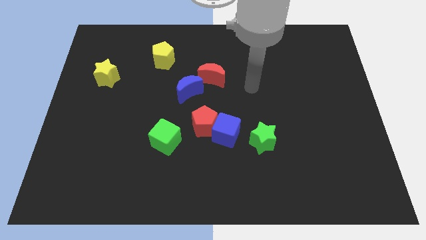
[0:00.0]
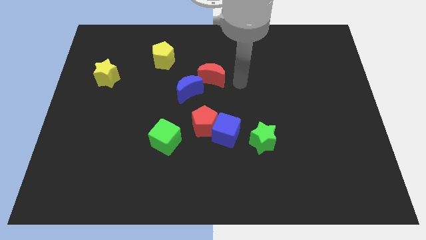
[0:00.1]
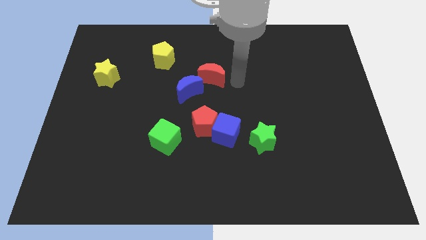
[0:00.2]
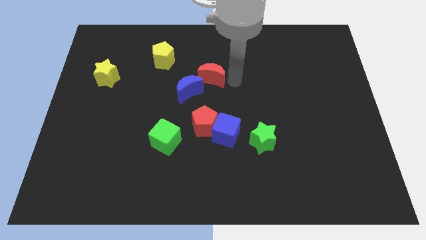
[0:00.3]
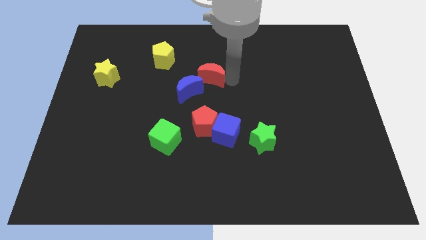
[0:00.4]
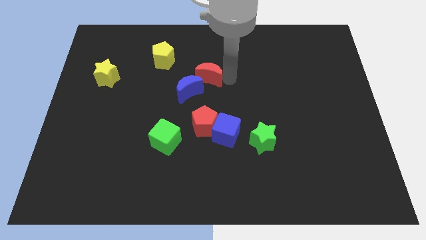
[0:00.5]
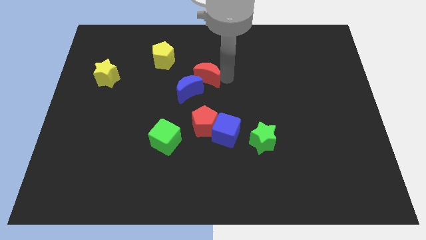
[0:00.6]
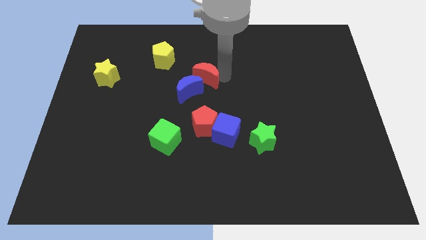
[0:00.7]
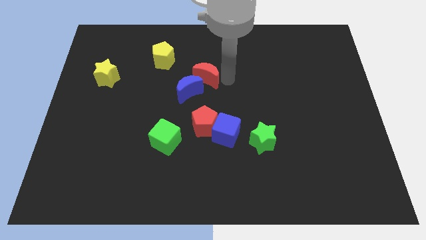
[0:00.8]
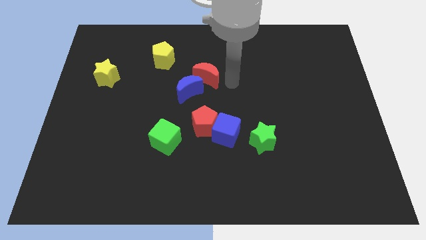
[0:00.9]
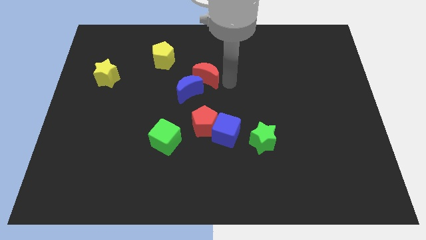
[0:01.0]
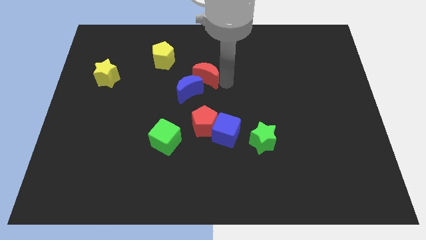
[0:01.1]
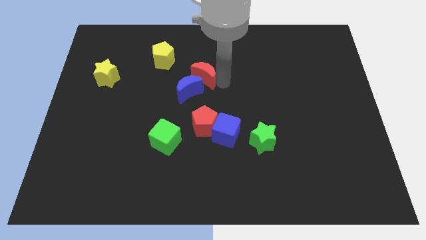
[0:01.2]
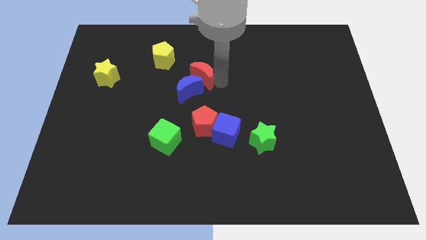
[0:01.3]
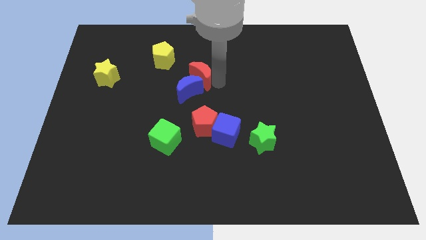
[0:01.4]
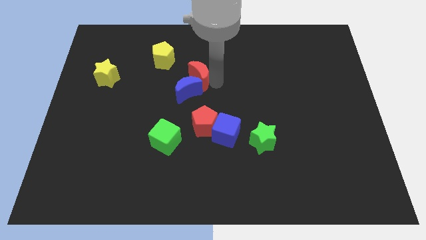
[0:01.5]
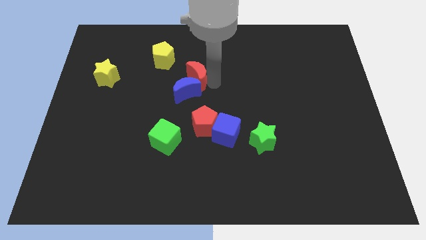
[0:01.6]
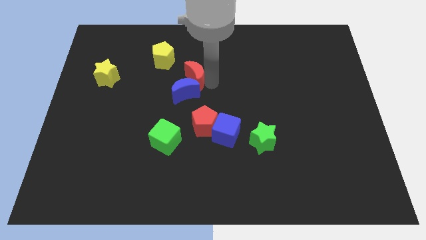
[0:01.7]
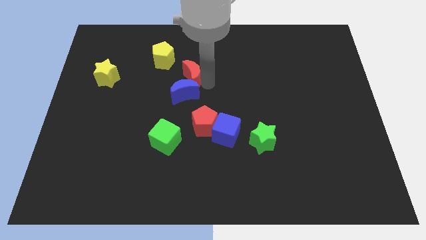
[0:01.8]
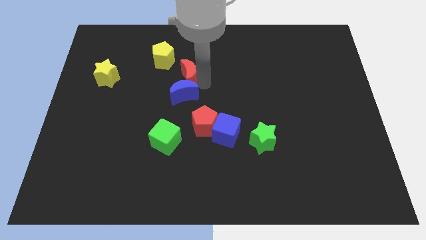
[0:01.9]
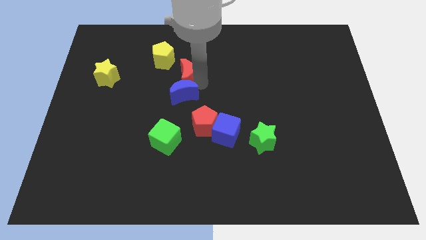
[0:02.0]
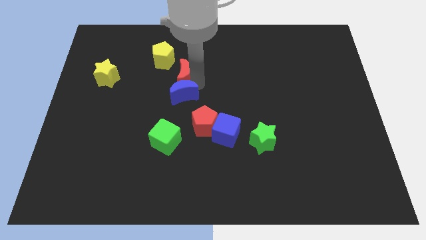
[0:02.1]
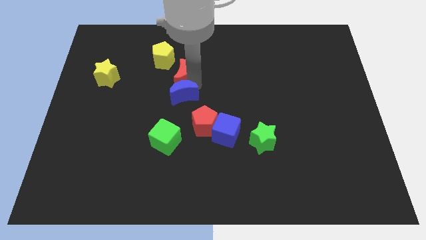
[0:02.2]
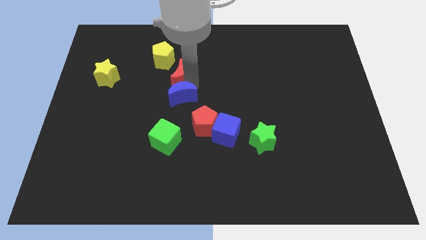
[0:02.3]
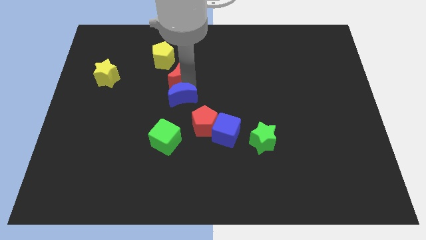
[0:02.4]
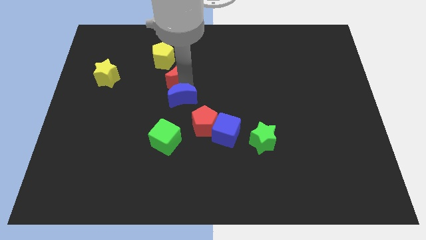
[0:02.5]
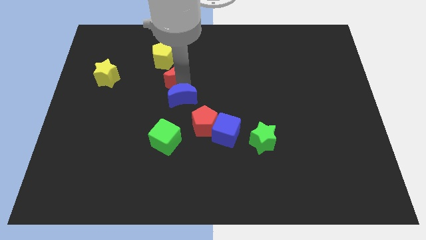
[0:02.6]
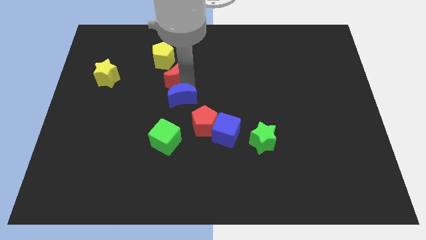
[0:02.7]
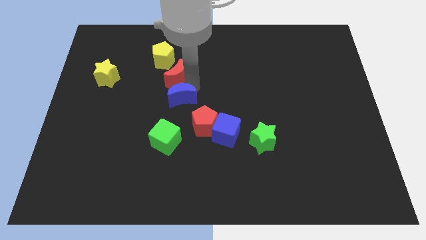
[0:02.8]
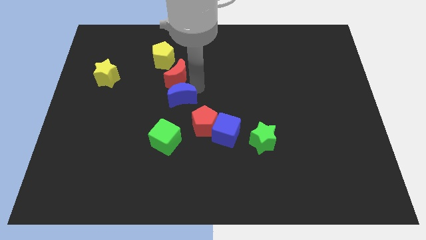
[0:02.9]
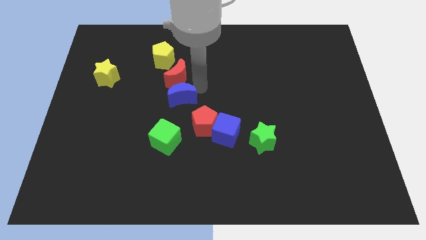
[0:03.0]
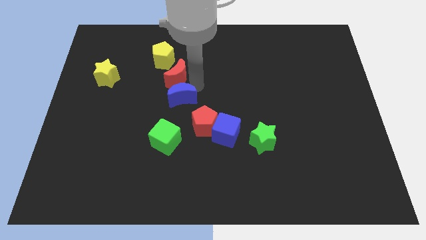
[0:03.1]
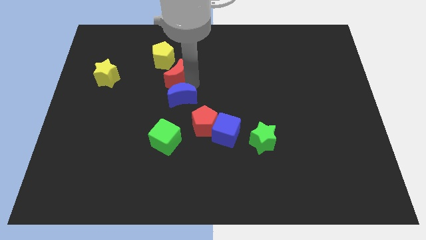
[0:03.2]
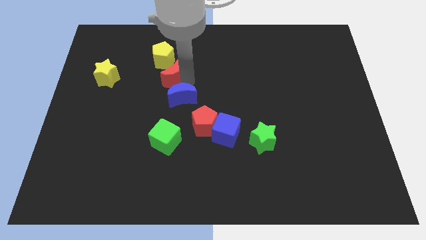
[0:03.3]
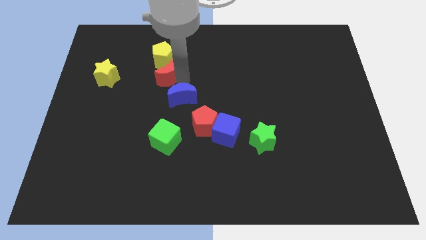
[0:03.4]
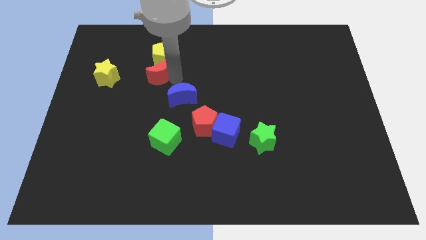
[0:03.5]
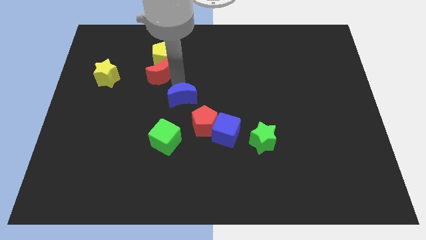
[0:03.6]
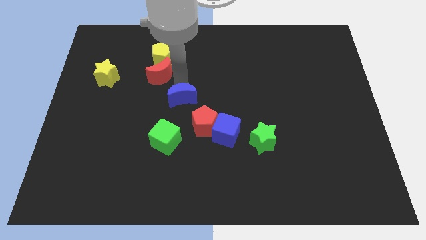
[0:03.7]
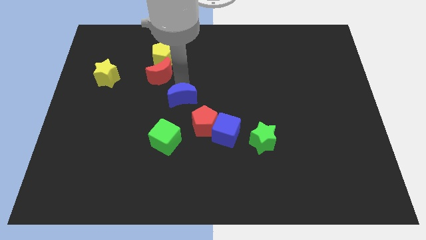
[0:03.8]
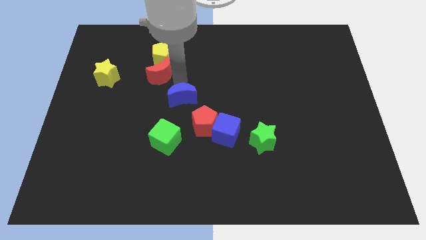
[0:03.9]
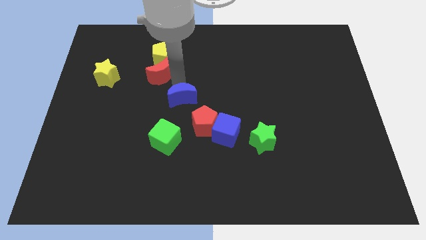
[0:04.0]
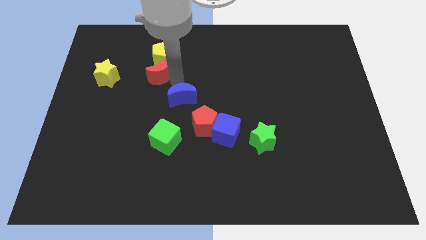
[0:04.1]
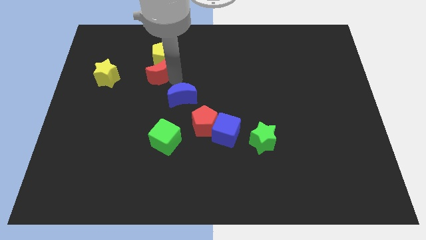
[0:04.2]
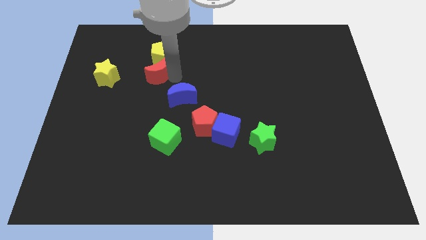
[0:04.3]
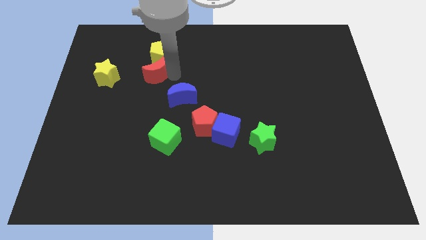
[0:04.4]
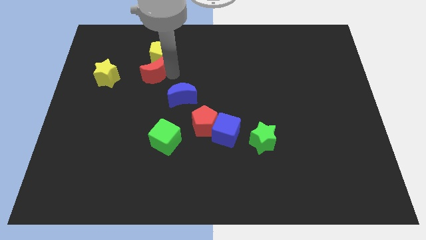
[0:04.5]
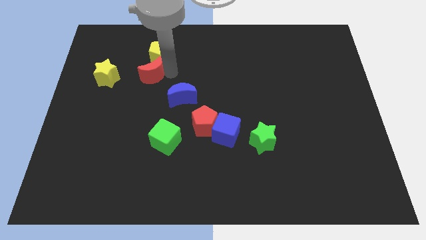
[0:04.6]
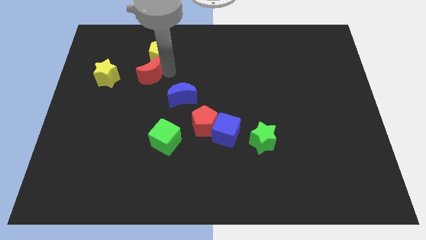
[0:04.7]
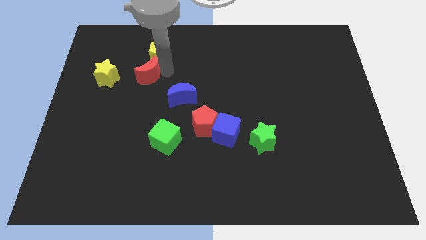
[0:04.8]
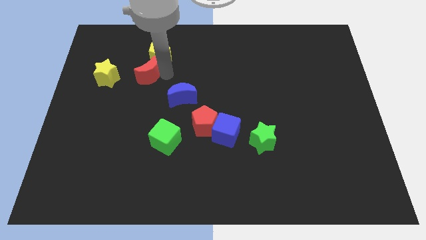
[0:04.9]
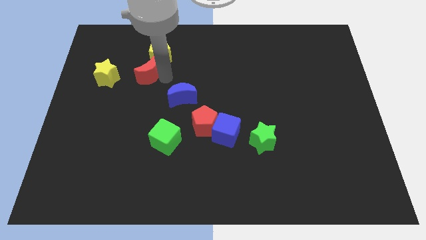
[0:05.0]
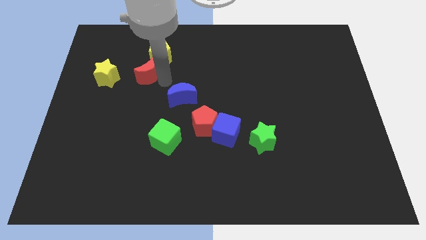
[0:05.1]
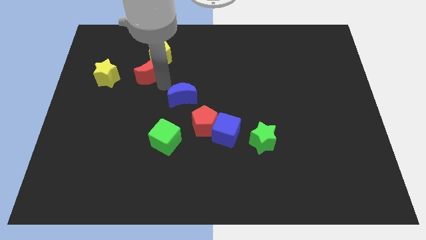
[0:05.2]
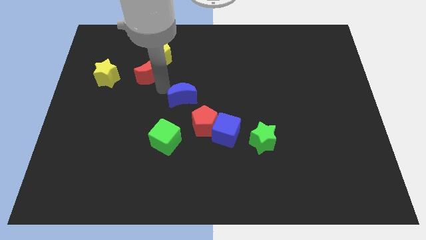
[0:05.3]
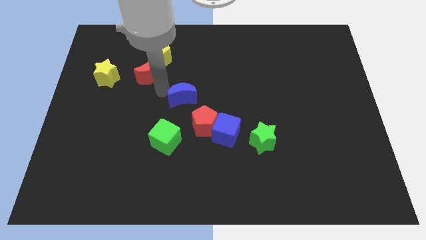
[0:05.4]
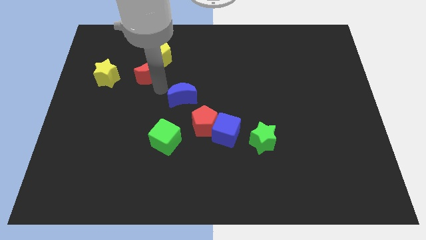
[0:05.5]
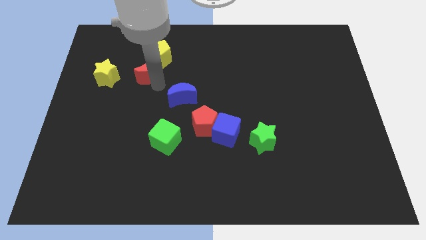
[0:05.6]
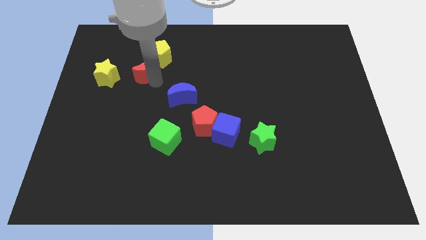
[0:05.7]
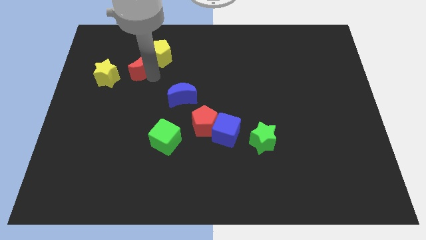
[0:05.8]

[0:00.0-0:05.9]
put the red moon to the left side of the yellow pentagon

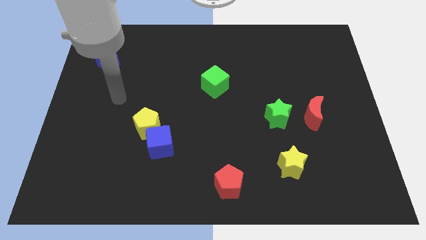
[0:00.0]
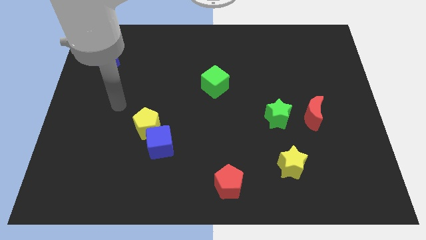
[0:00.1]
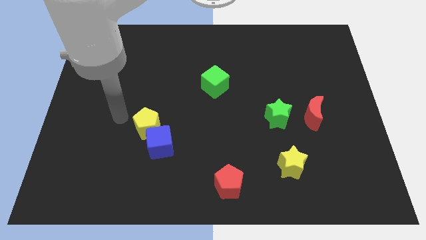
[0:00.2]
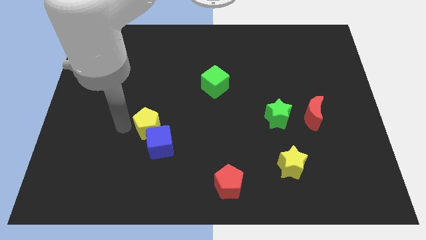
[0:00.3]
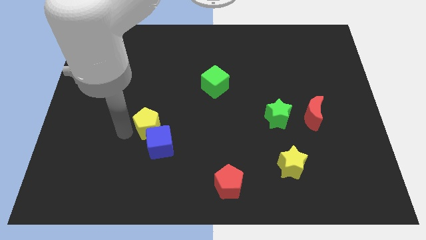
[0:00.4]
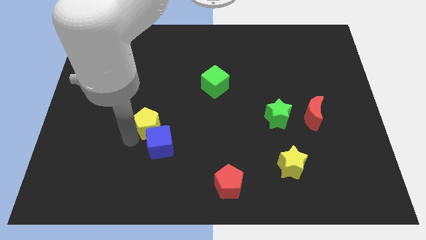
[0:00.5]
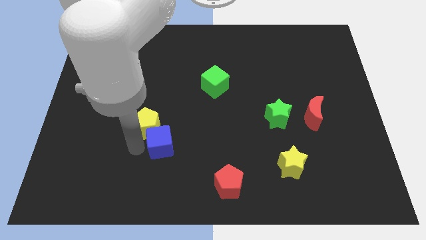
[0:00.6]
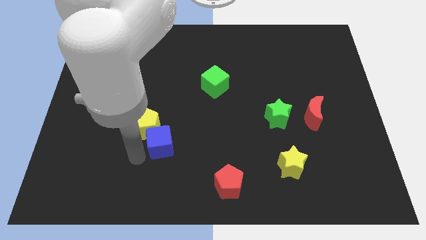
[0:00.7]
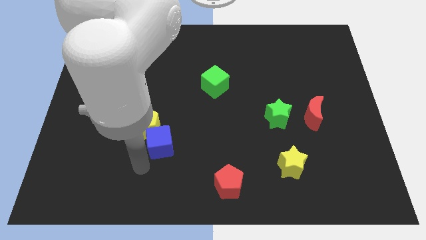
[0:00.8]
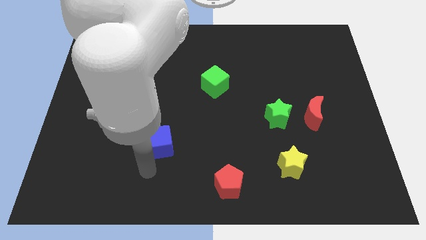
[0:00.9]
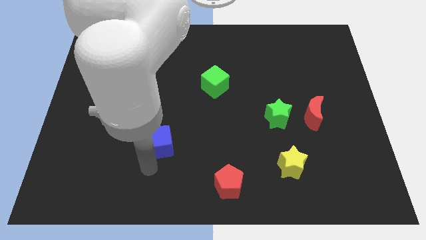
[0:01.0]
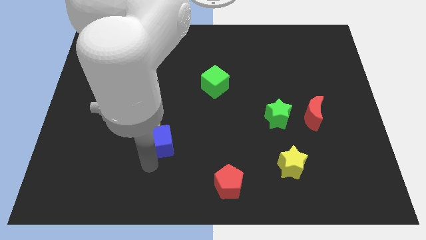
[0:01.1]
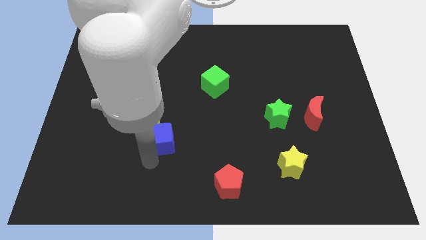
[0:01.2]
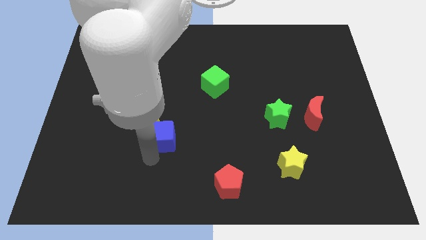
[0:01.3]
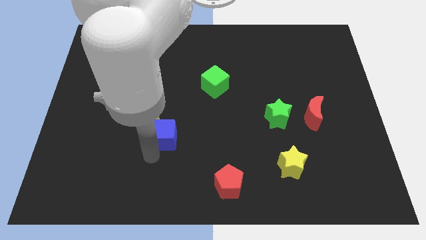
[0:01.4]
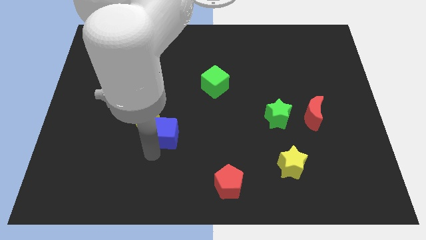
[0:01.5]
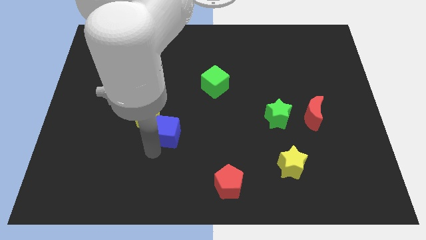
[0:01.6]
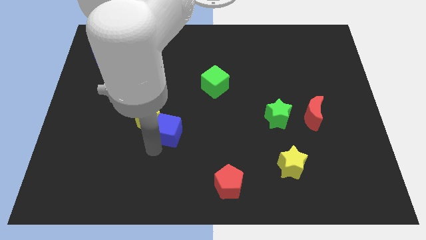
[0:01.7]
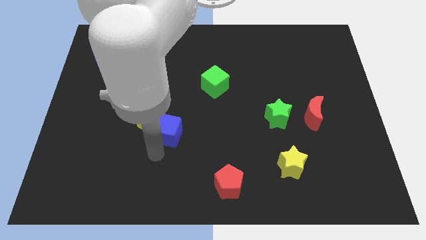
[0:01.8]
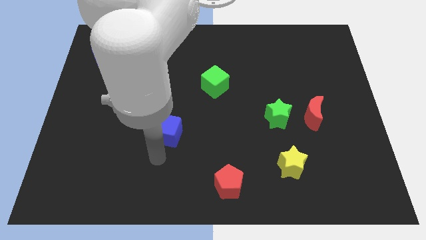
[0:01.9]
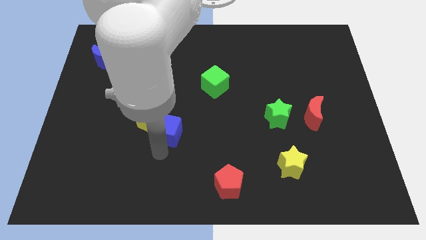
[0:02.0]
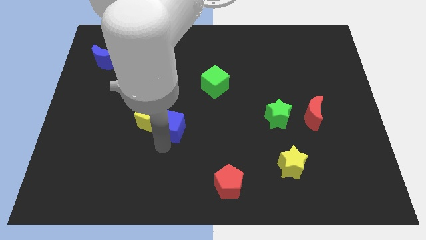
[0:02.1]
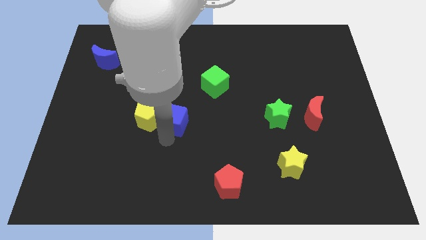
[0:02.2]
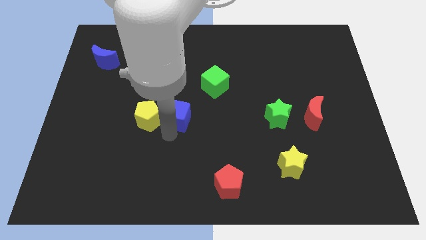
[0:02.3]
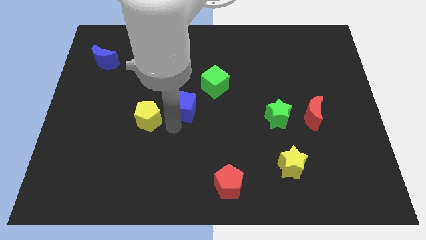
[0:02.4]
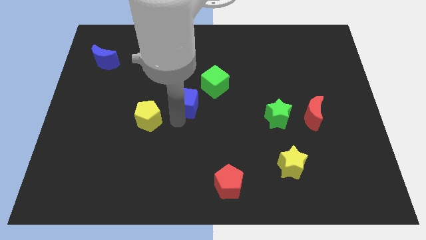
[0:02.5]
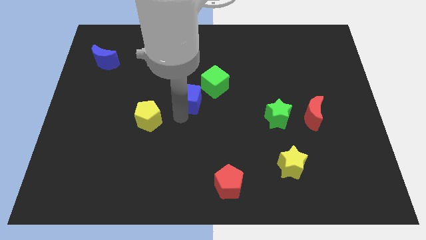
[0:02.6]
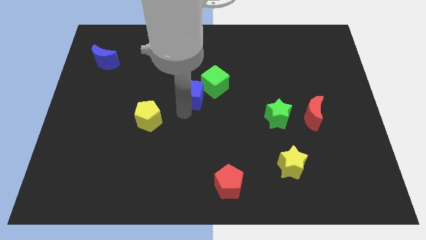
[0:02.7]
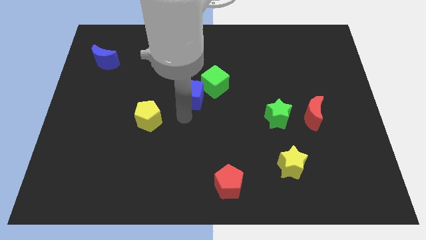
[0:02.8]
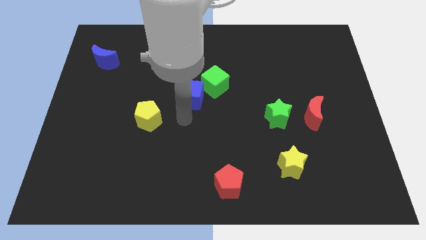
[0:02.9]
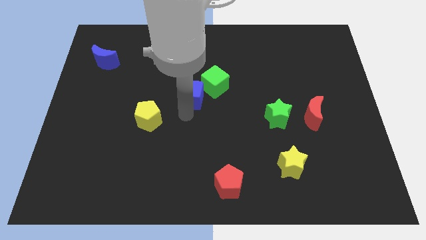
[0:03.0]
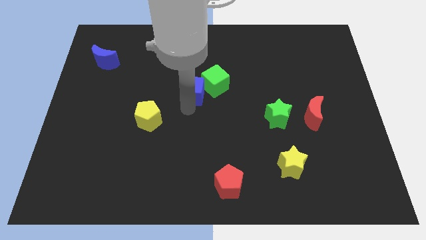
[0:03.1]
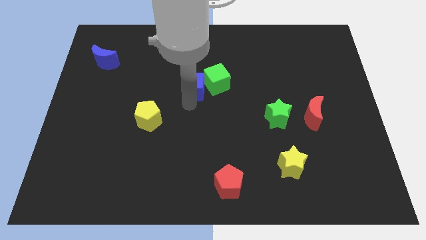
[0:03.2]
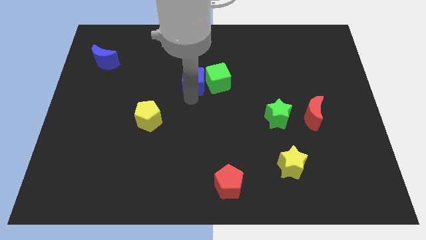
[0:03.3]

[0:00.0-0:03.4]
move the blue cube to the top left of the green cube
